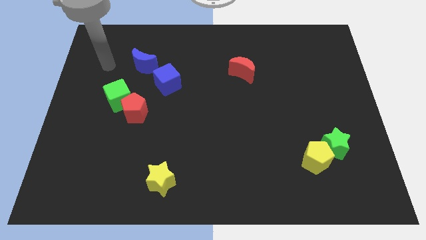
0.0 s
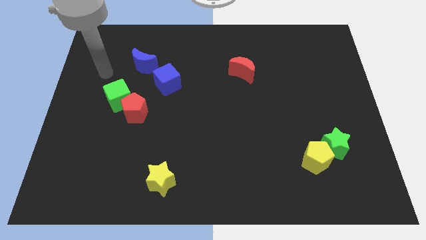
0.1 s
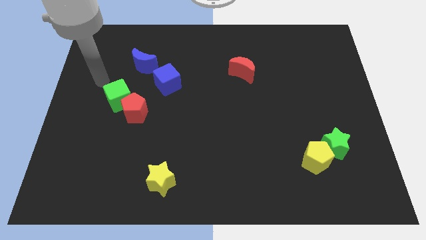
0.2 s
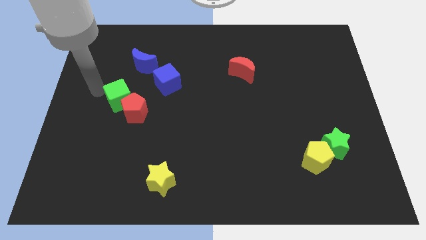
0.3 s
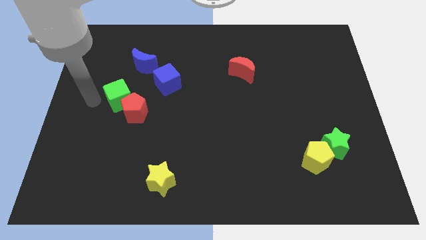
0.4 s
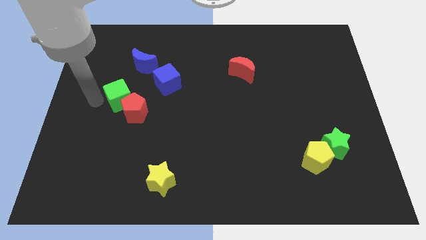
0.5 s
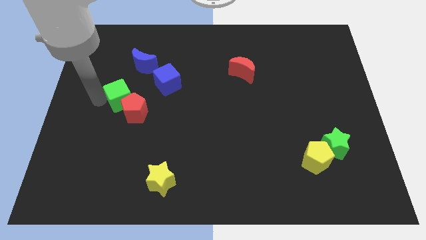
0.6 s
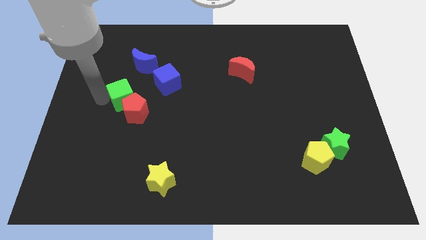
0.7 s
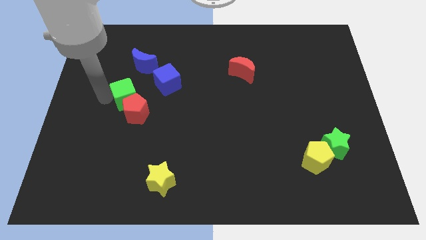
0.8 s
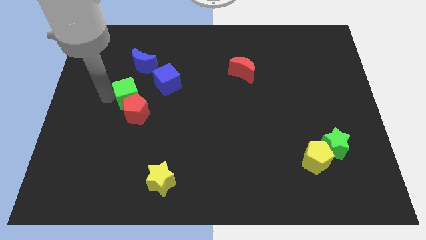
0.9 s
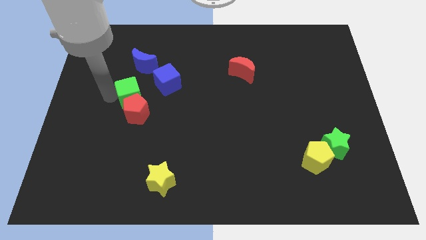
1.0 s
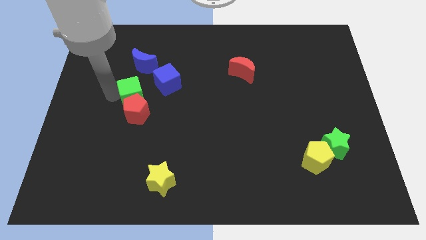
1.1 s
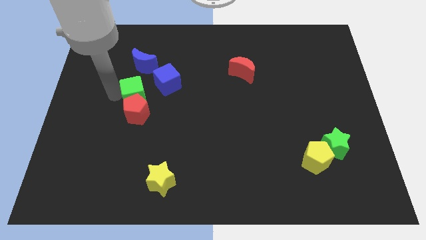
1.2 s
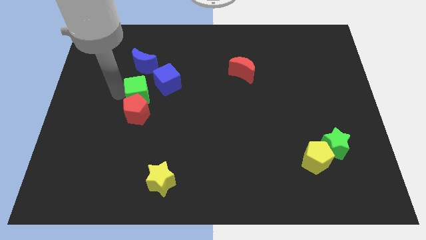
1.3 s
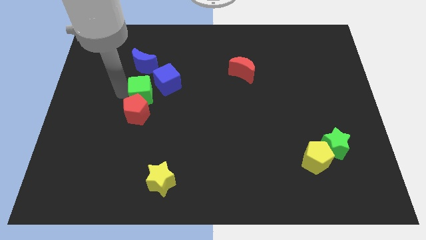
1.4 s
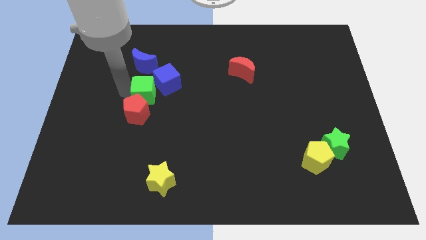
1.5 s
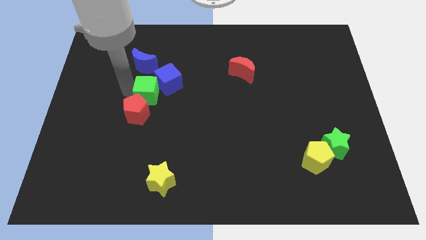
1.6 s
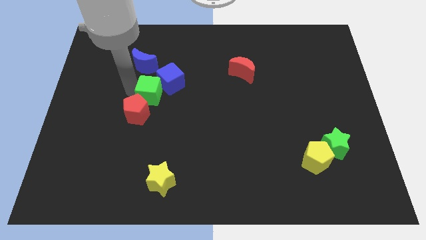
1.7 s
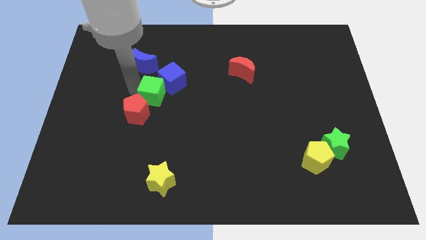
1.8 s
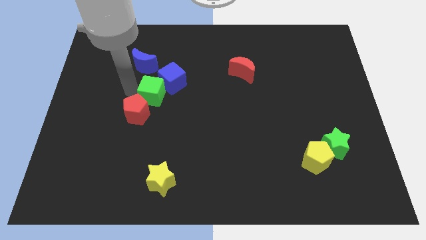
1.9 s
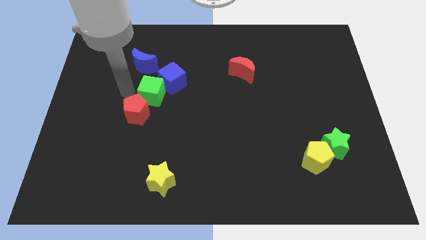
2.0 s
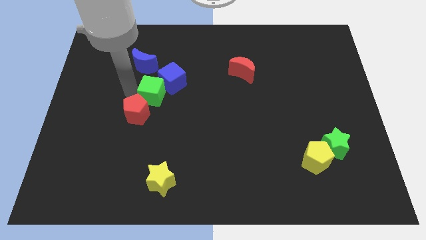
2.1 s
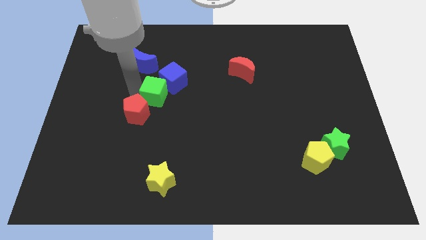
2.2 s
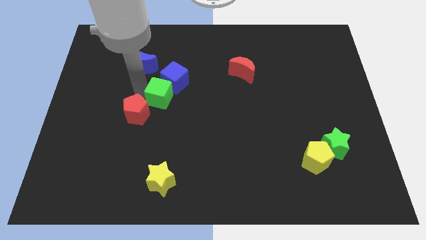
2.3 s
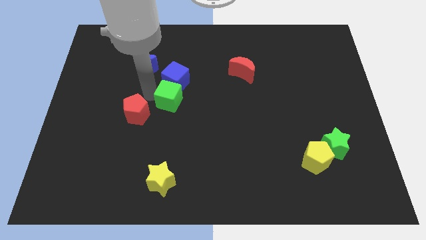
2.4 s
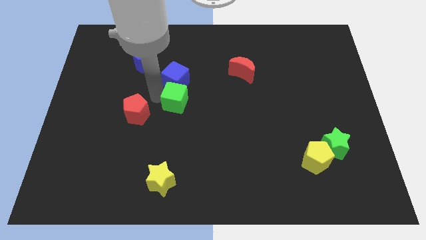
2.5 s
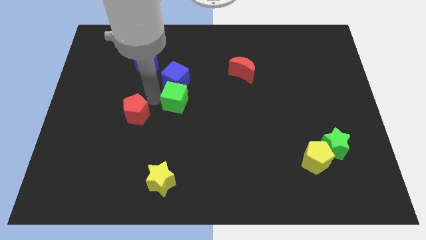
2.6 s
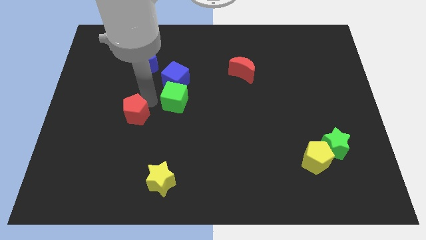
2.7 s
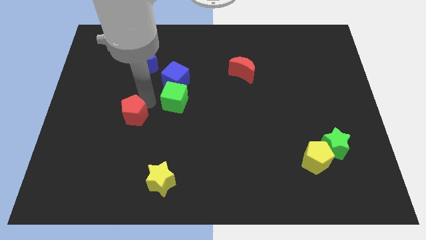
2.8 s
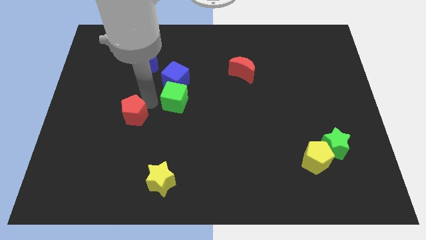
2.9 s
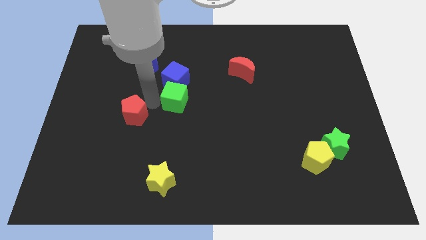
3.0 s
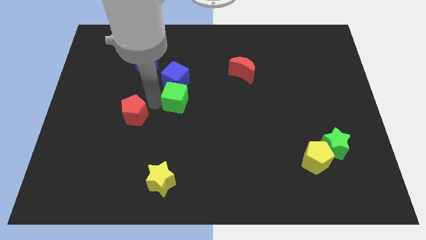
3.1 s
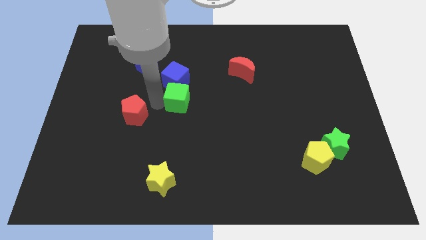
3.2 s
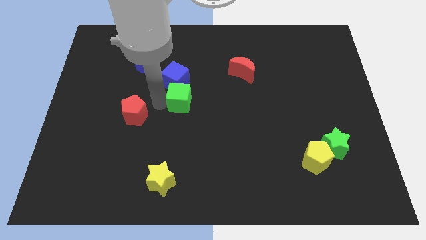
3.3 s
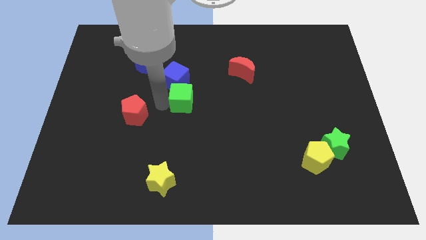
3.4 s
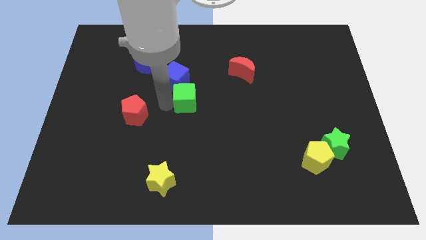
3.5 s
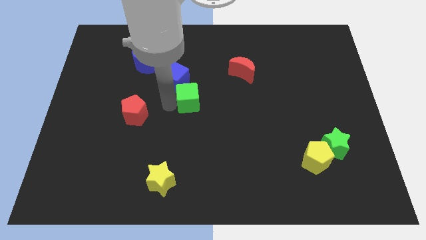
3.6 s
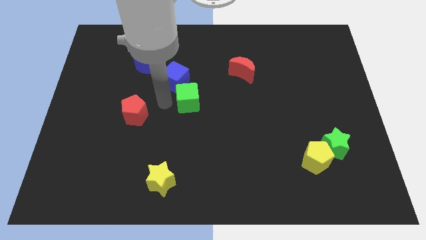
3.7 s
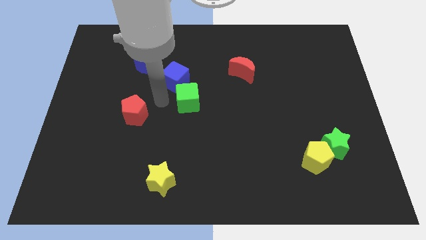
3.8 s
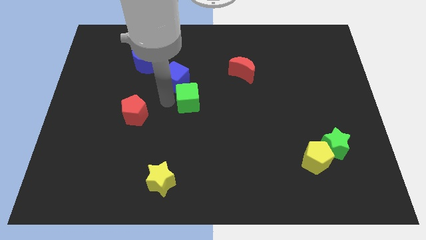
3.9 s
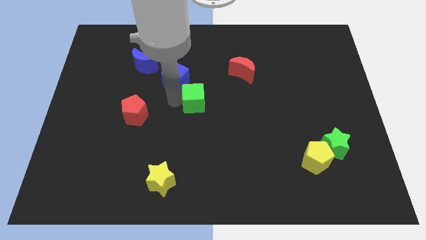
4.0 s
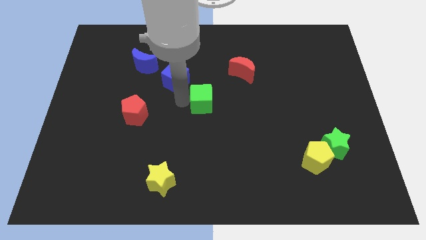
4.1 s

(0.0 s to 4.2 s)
move the green cube right

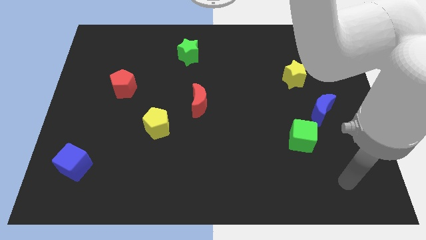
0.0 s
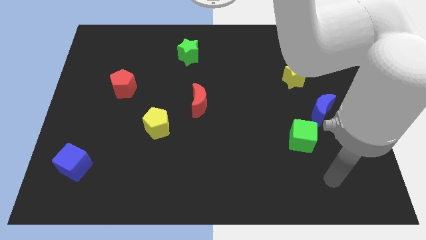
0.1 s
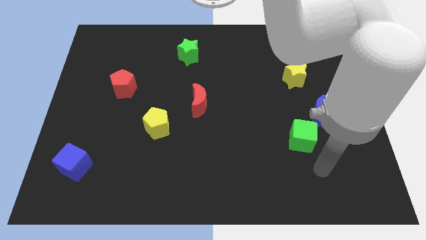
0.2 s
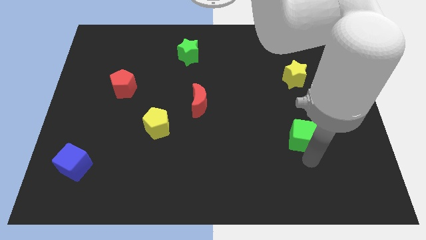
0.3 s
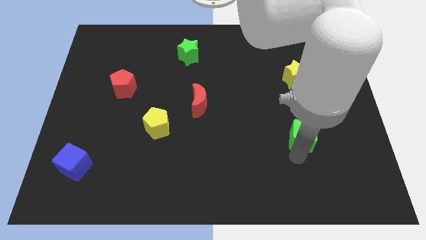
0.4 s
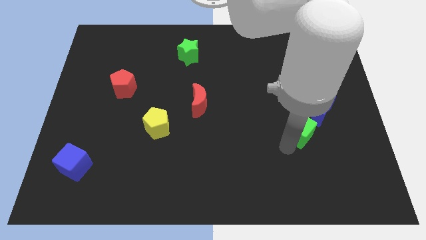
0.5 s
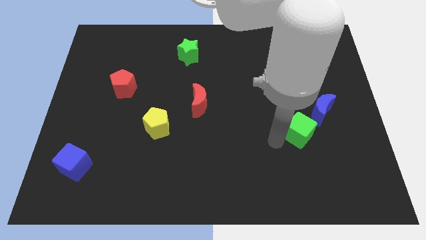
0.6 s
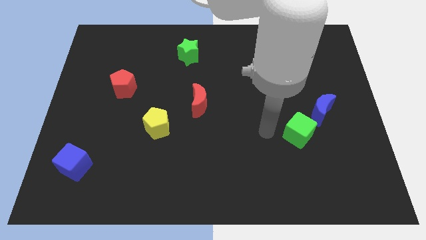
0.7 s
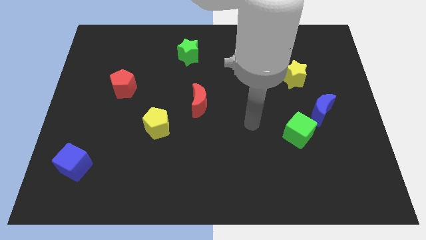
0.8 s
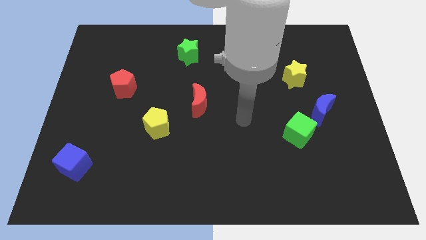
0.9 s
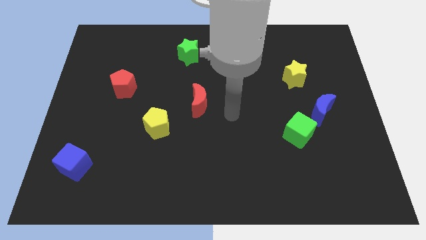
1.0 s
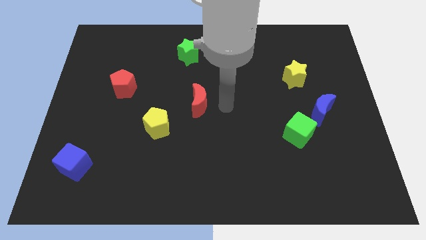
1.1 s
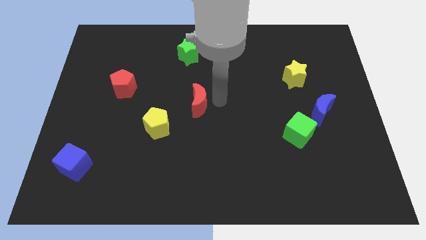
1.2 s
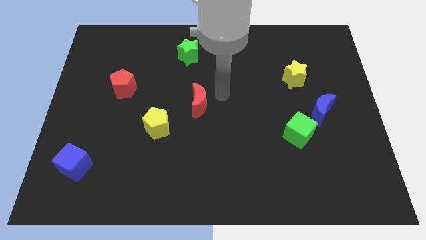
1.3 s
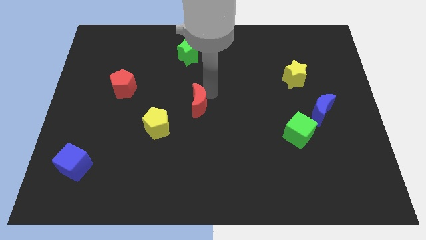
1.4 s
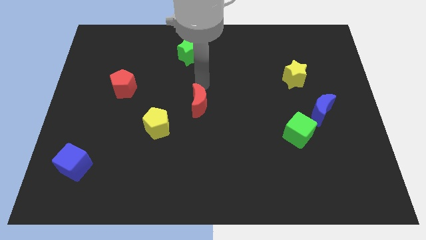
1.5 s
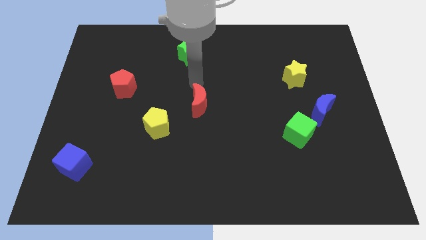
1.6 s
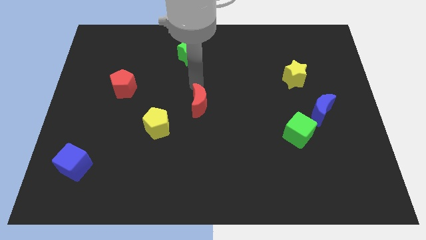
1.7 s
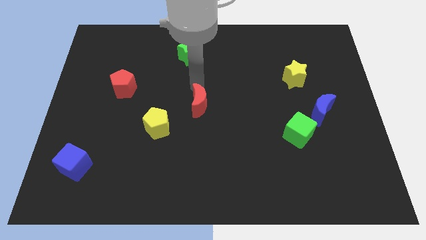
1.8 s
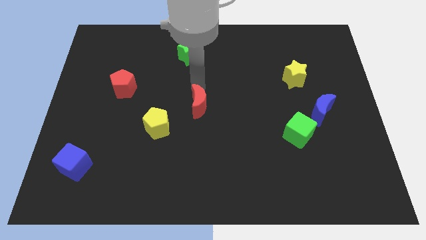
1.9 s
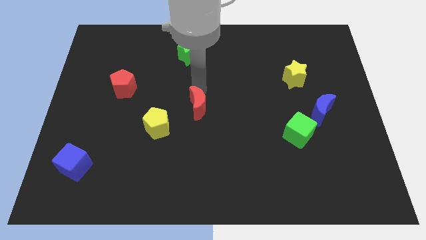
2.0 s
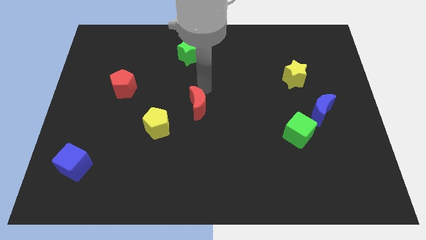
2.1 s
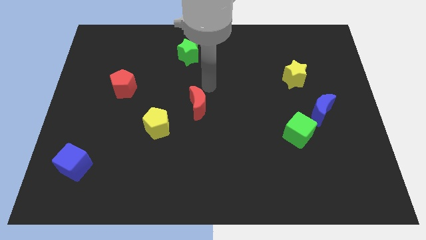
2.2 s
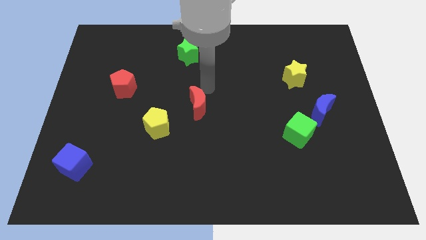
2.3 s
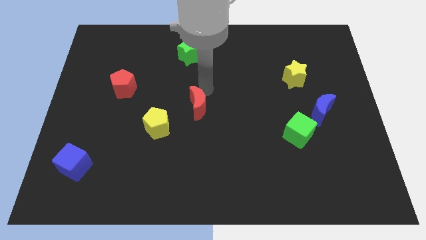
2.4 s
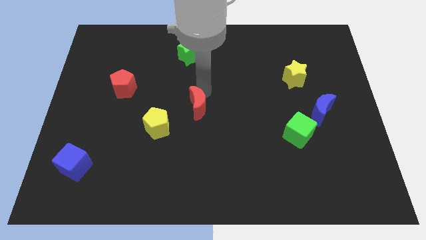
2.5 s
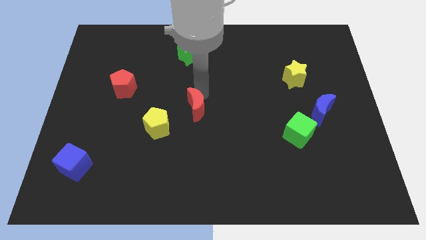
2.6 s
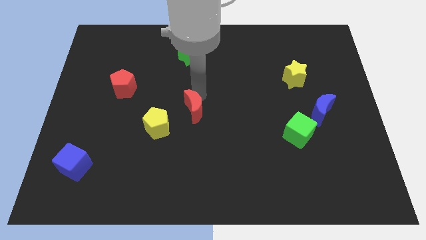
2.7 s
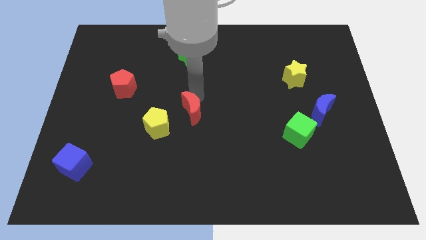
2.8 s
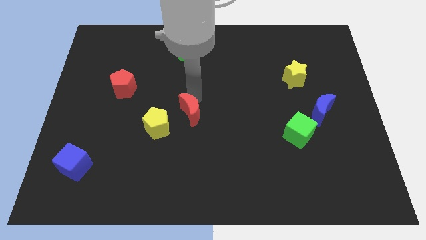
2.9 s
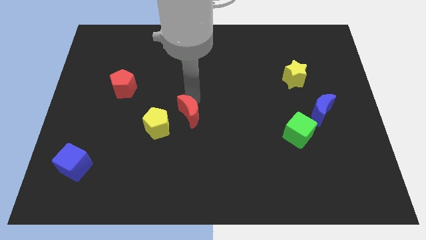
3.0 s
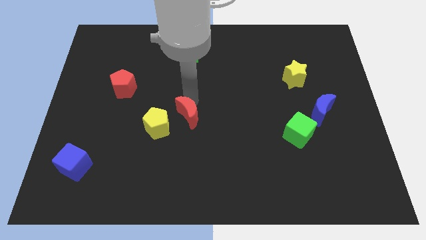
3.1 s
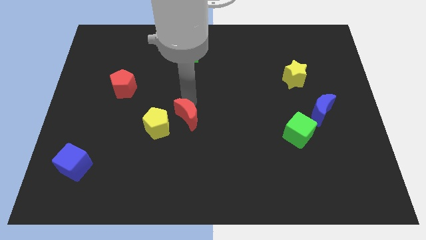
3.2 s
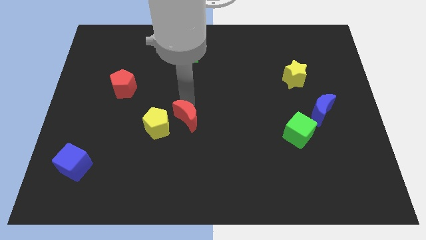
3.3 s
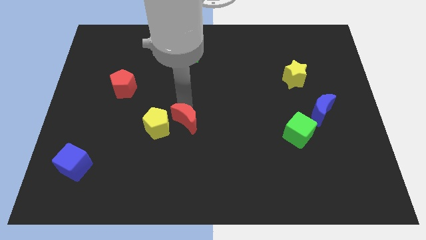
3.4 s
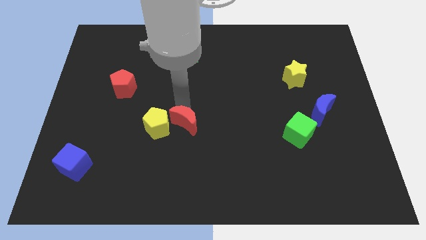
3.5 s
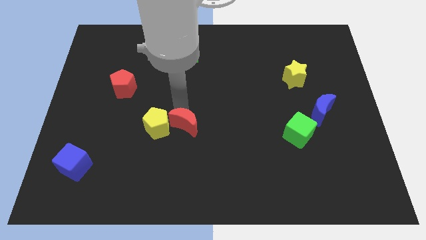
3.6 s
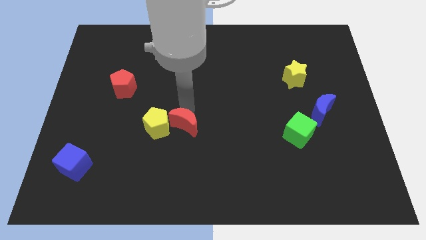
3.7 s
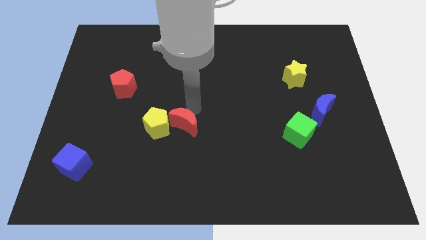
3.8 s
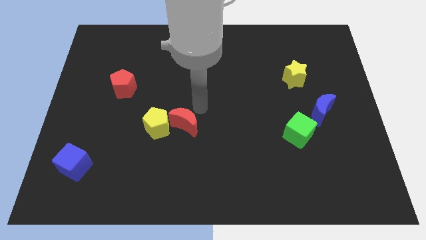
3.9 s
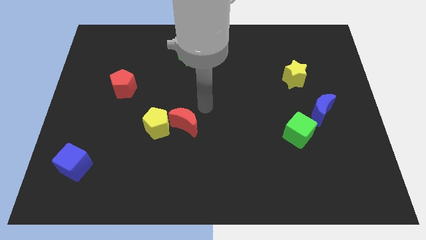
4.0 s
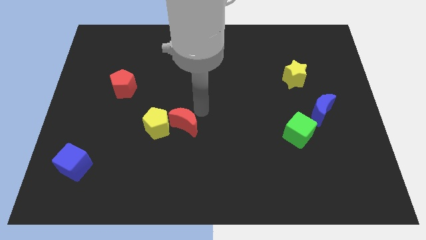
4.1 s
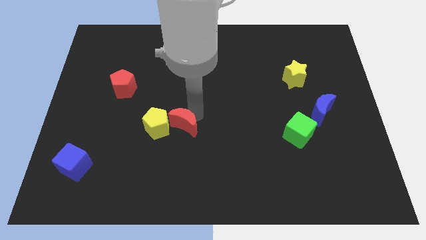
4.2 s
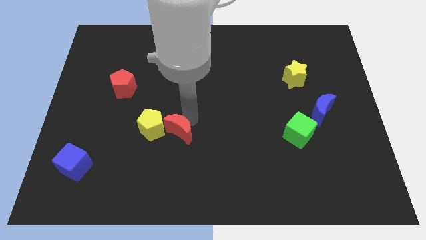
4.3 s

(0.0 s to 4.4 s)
slide the red moon a little down and then left
